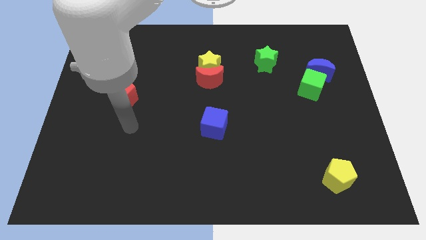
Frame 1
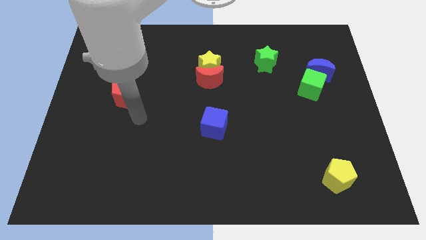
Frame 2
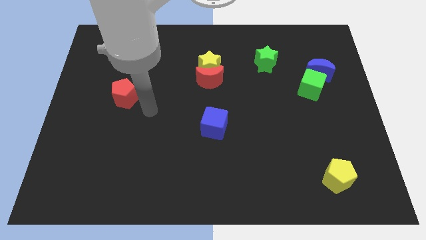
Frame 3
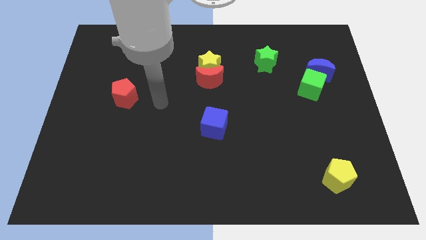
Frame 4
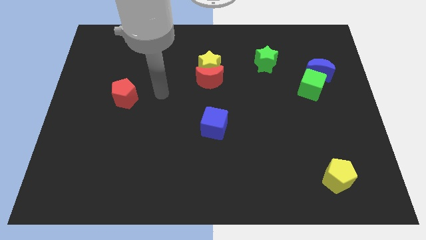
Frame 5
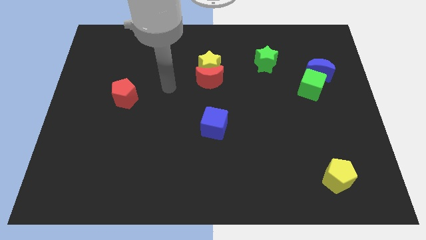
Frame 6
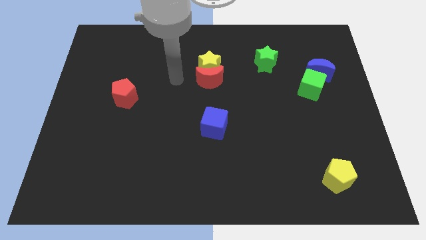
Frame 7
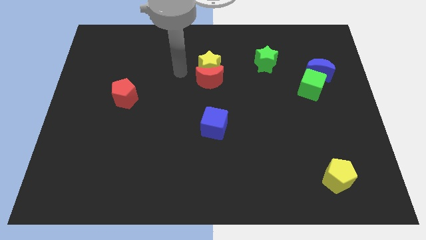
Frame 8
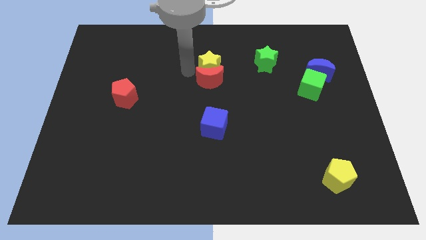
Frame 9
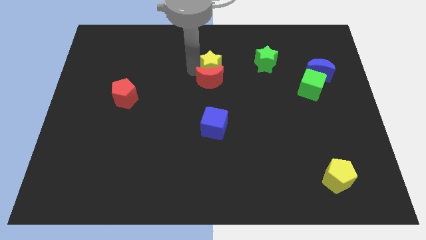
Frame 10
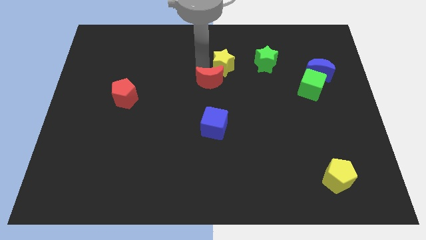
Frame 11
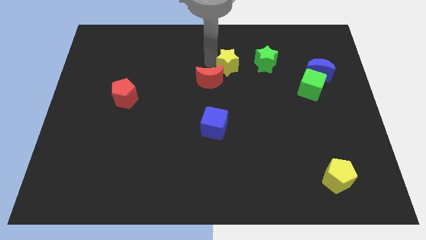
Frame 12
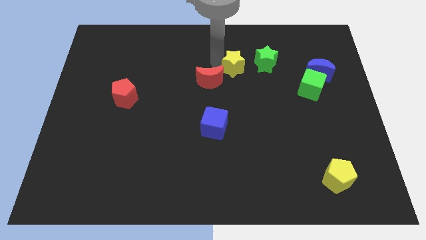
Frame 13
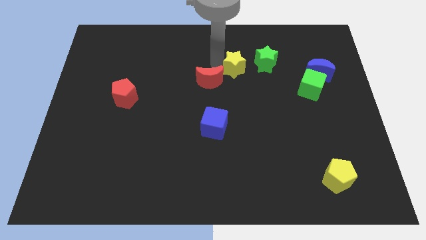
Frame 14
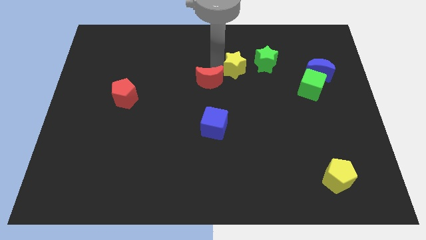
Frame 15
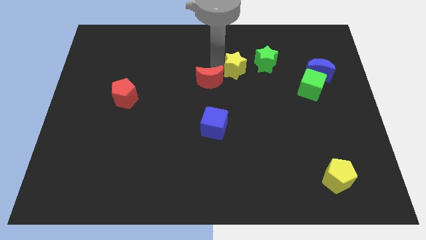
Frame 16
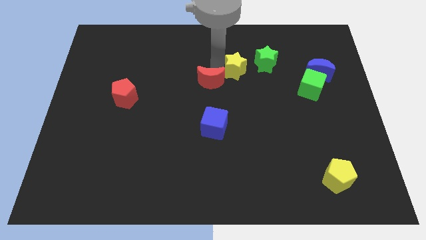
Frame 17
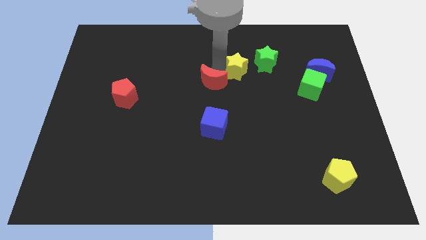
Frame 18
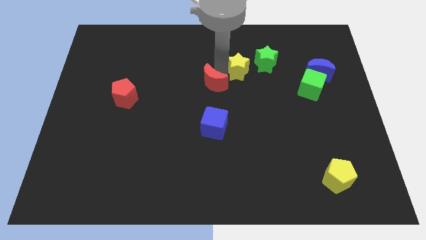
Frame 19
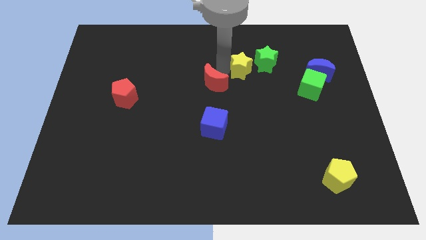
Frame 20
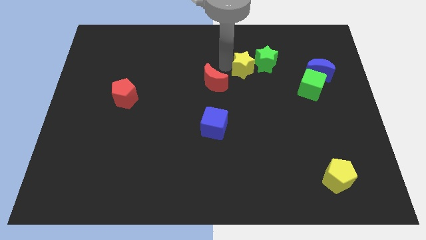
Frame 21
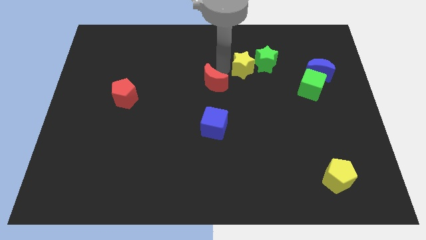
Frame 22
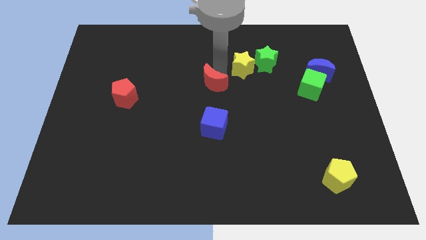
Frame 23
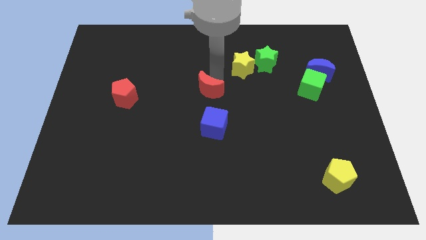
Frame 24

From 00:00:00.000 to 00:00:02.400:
move the red moon away from the yellow star

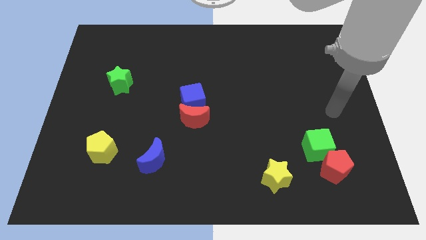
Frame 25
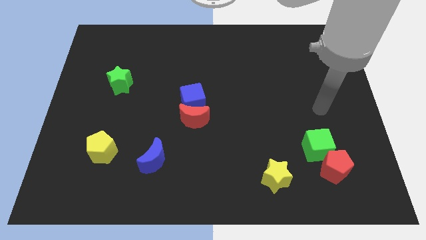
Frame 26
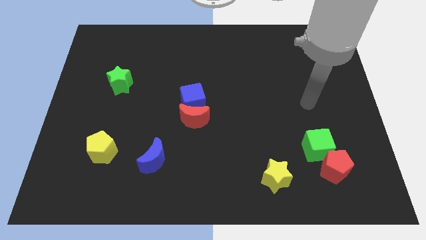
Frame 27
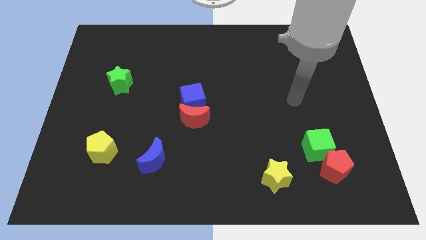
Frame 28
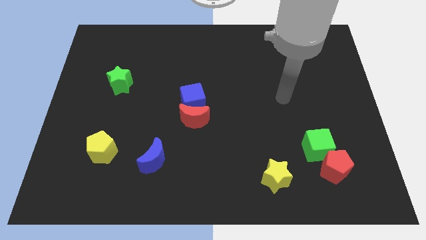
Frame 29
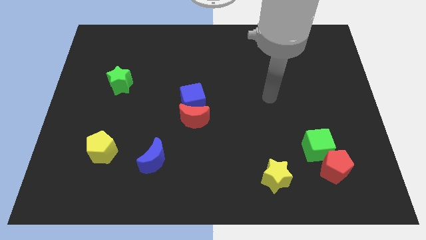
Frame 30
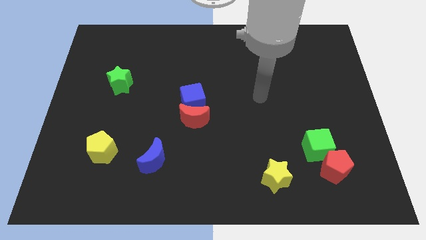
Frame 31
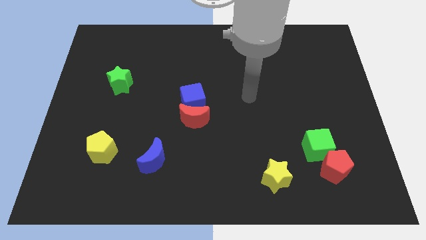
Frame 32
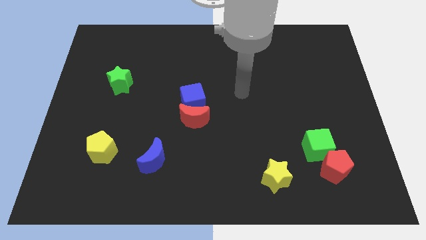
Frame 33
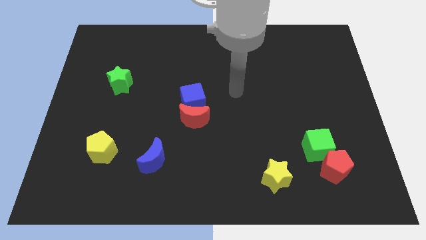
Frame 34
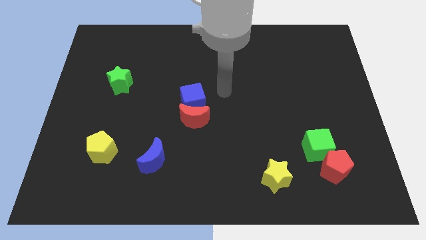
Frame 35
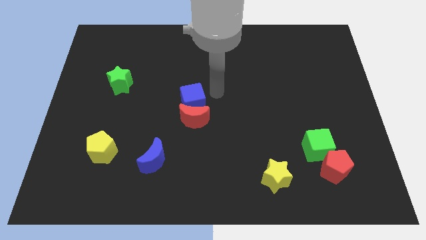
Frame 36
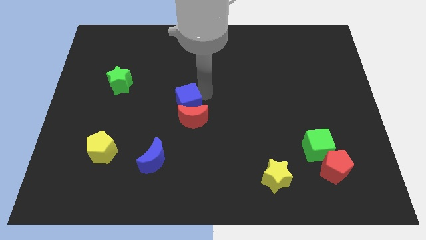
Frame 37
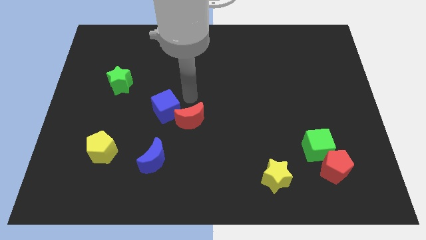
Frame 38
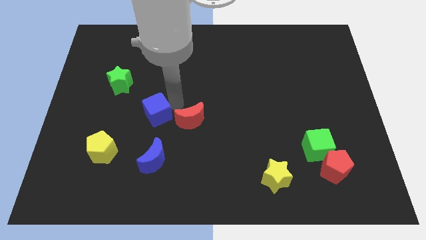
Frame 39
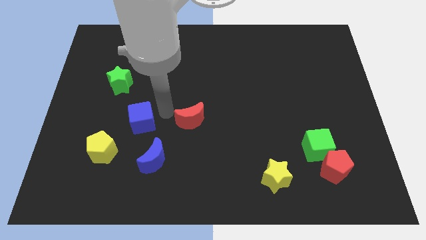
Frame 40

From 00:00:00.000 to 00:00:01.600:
separate the red moon from the blue cube

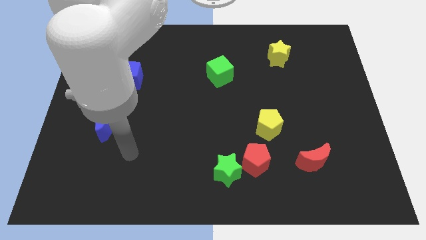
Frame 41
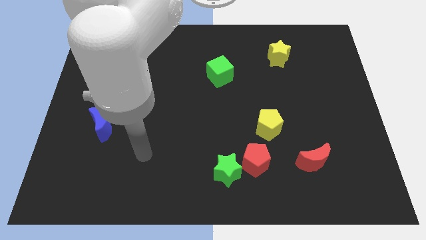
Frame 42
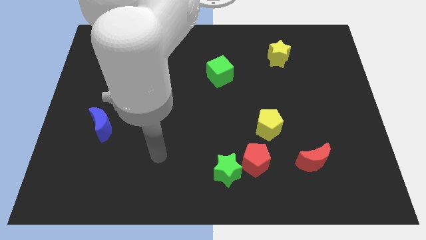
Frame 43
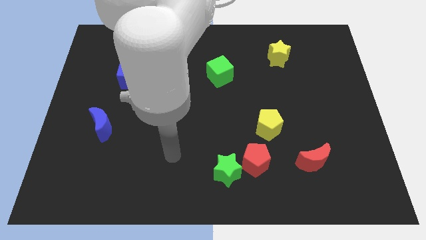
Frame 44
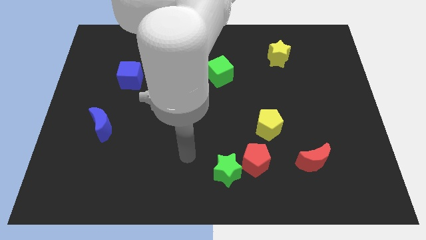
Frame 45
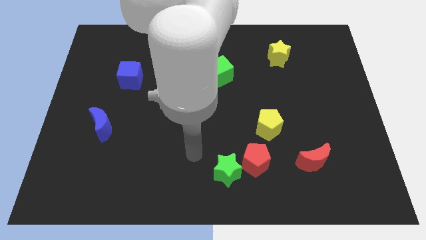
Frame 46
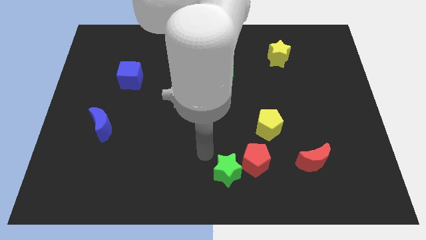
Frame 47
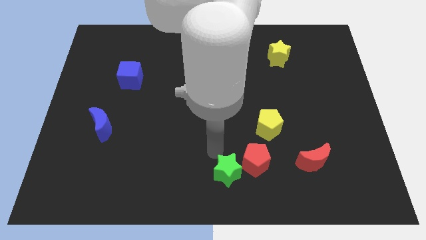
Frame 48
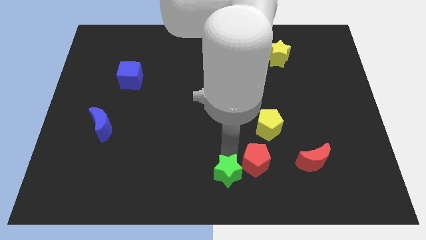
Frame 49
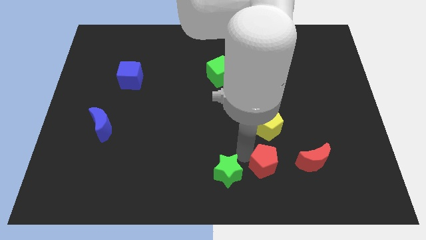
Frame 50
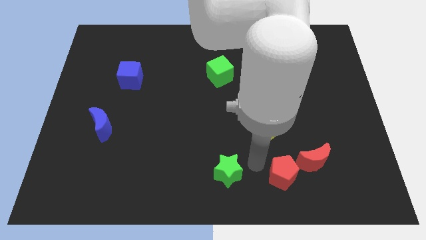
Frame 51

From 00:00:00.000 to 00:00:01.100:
move the green star away from the red pentagon

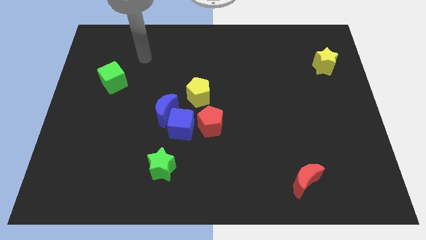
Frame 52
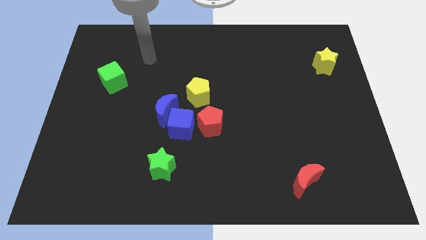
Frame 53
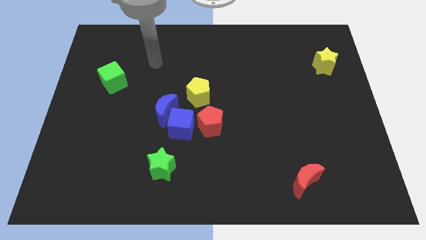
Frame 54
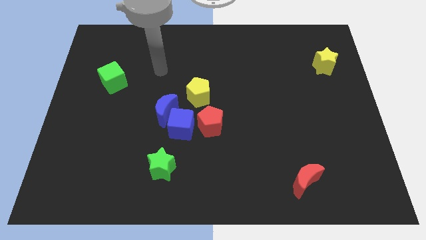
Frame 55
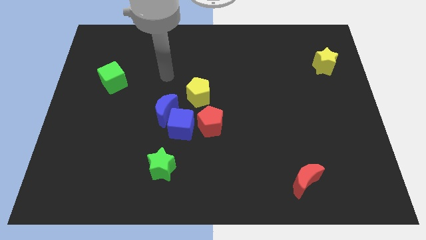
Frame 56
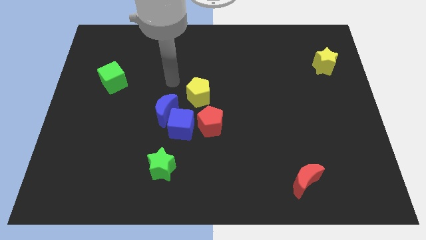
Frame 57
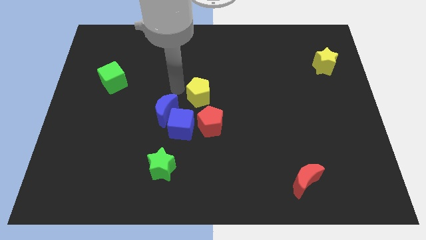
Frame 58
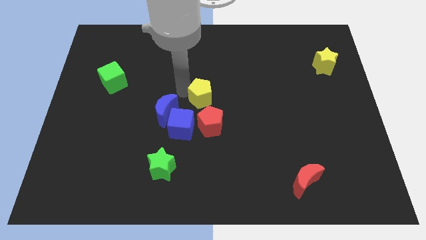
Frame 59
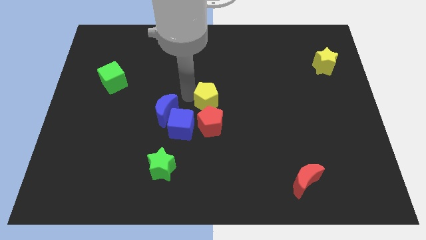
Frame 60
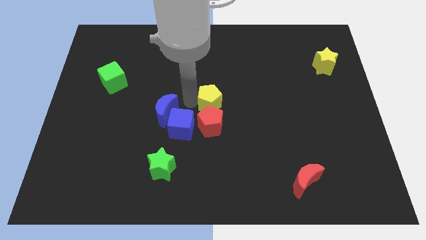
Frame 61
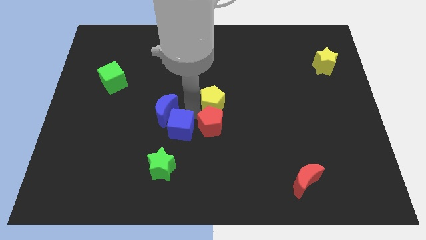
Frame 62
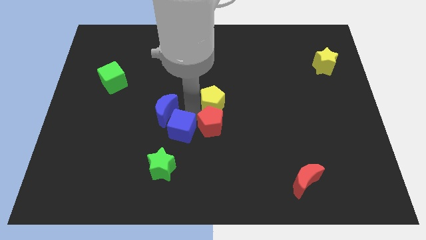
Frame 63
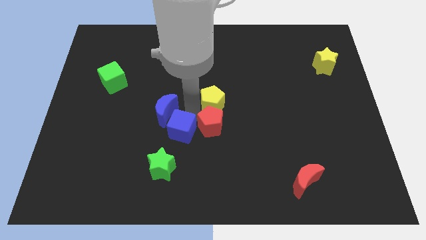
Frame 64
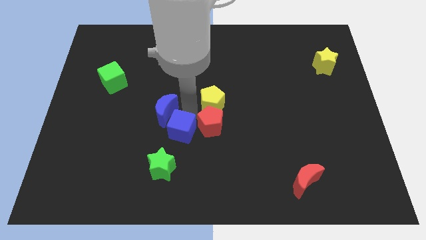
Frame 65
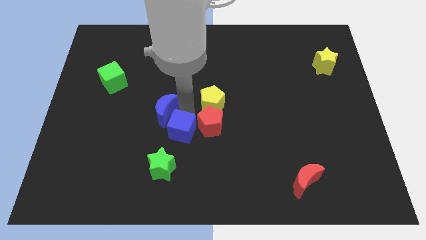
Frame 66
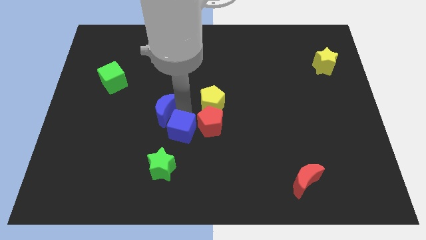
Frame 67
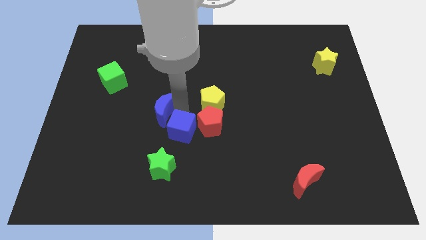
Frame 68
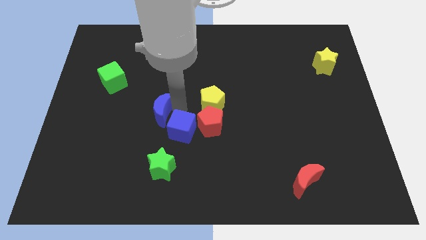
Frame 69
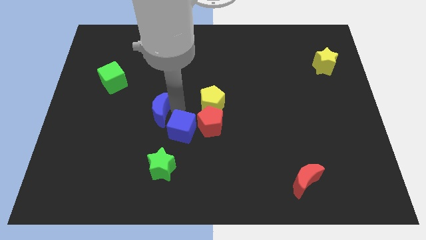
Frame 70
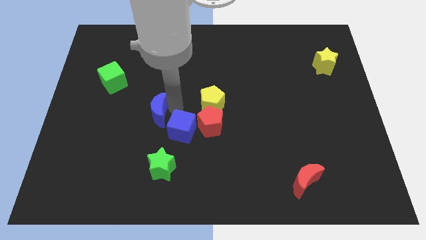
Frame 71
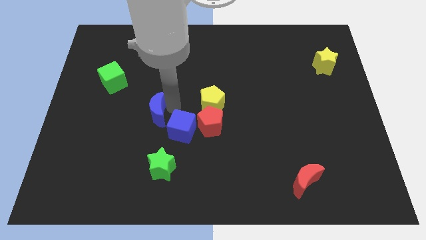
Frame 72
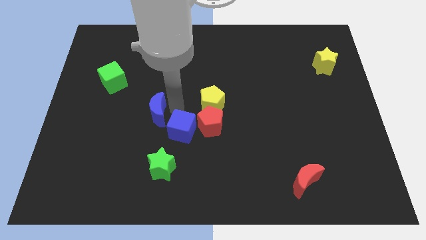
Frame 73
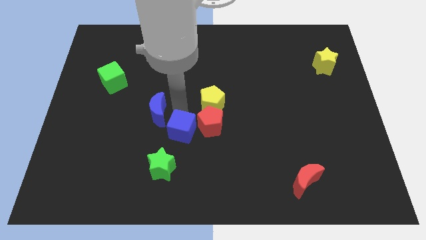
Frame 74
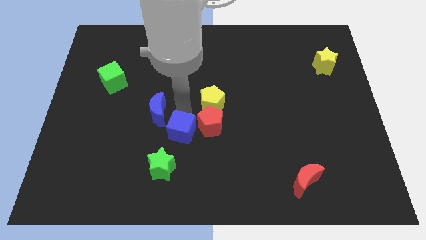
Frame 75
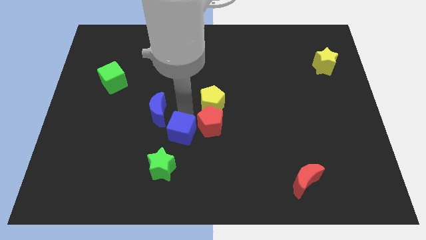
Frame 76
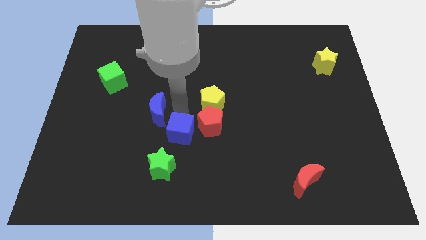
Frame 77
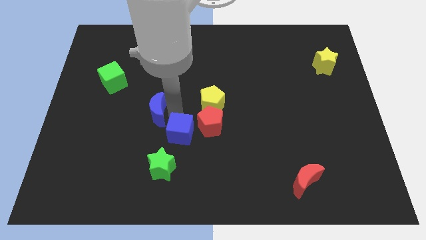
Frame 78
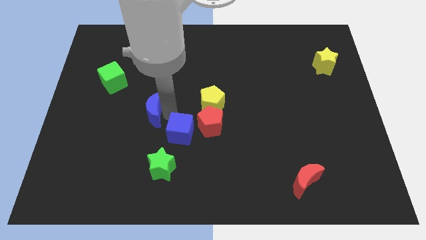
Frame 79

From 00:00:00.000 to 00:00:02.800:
separate the blue moon from the blue cube and yellow pentagon

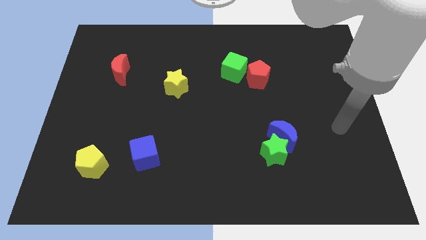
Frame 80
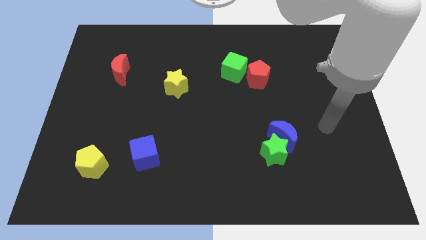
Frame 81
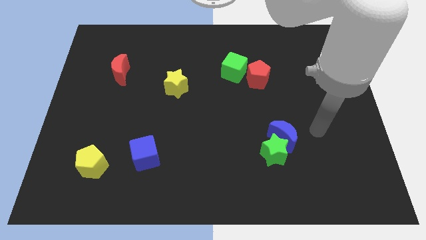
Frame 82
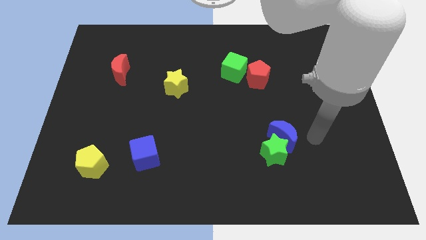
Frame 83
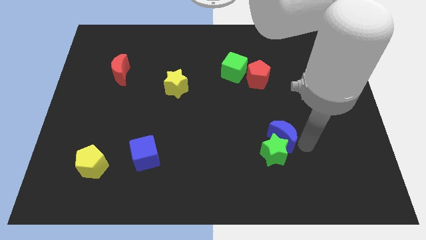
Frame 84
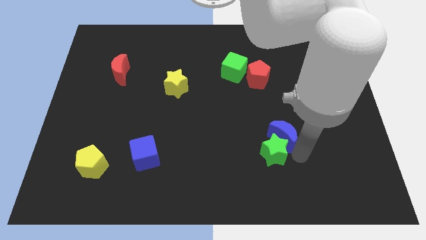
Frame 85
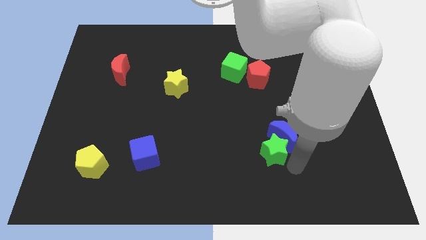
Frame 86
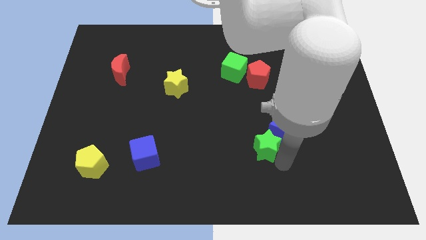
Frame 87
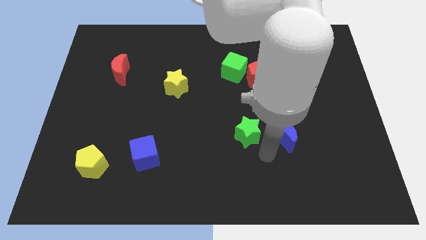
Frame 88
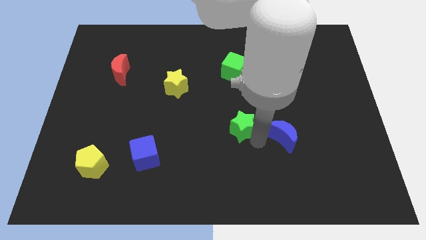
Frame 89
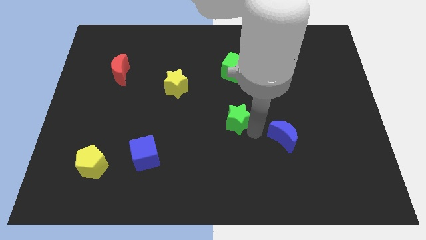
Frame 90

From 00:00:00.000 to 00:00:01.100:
move the blue moon away from the green star

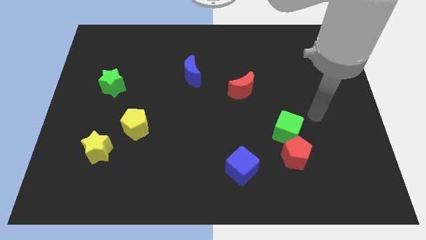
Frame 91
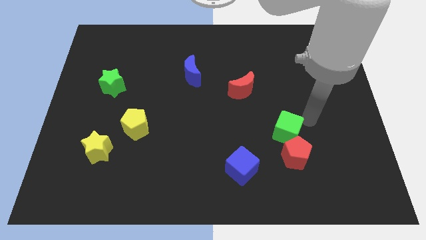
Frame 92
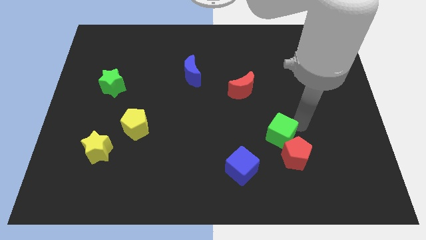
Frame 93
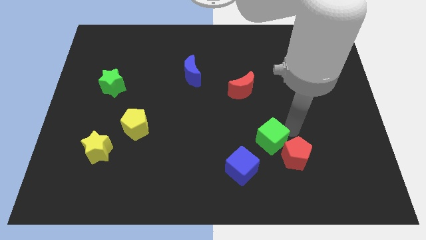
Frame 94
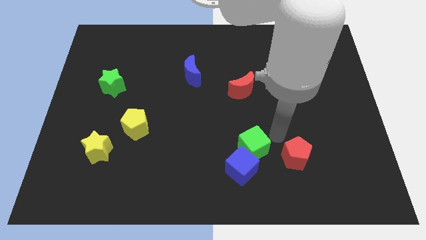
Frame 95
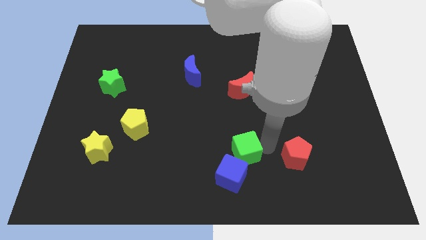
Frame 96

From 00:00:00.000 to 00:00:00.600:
separate the red pentagon from the green cube
